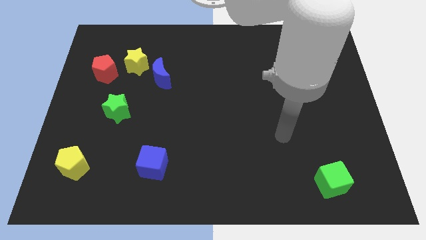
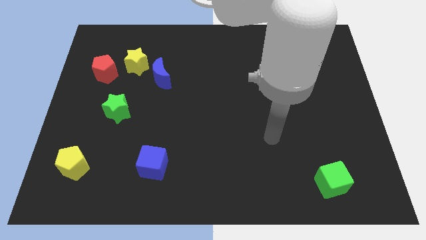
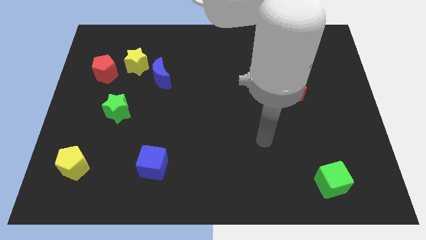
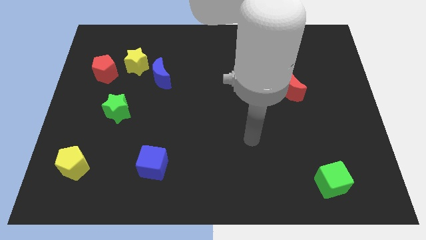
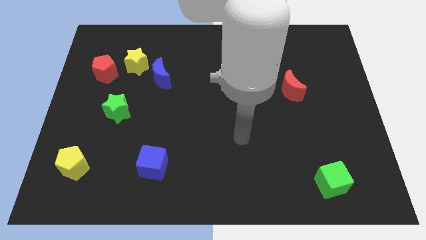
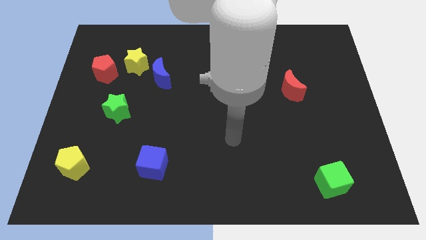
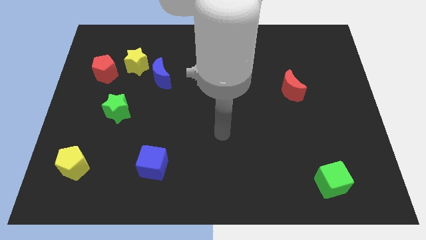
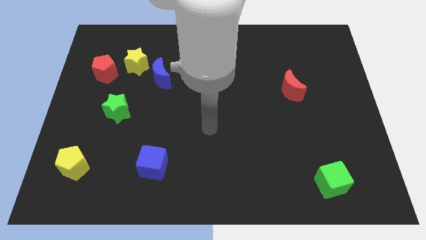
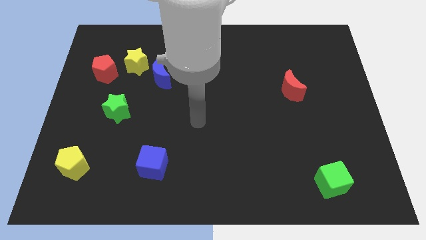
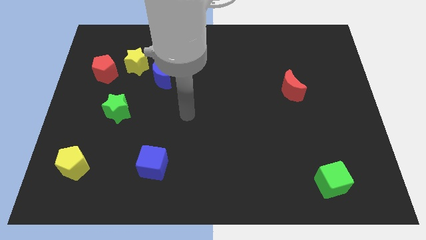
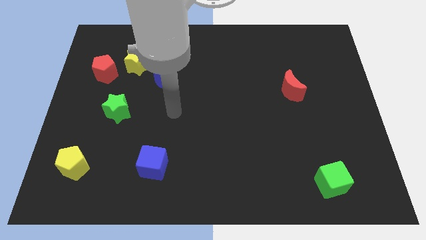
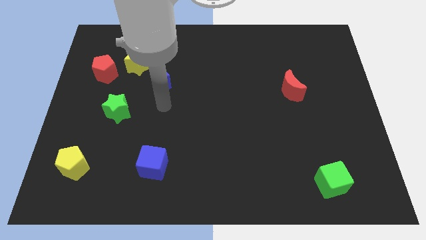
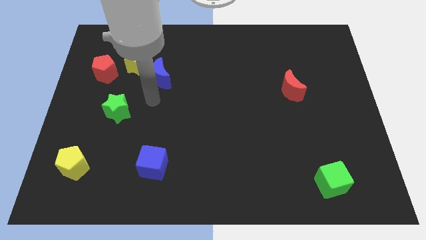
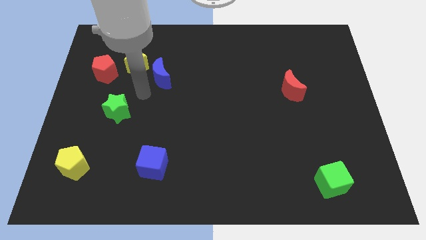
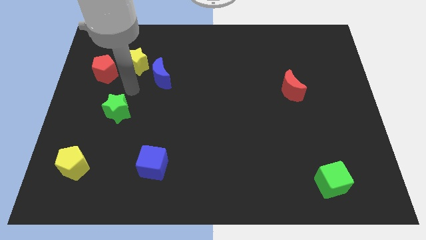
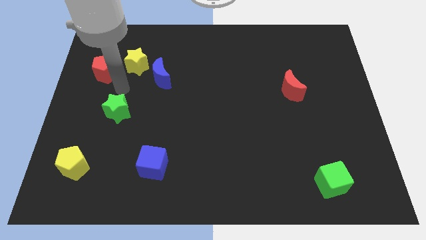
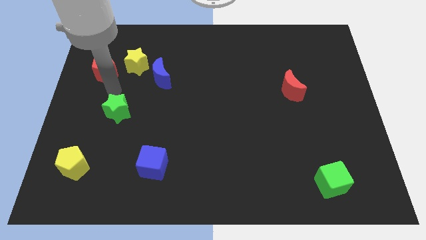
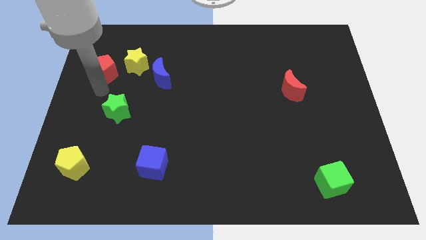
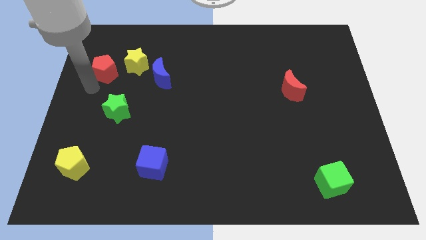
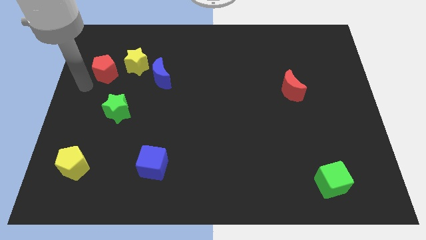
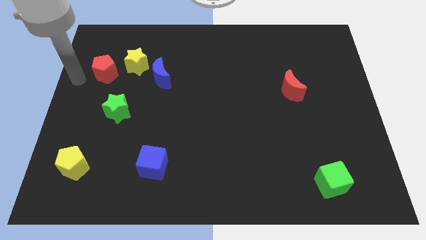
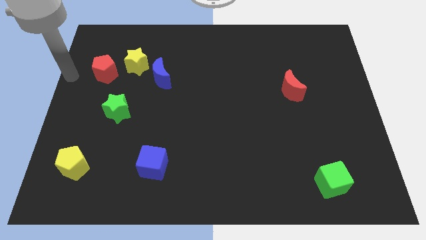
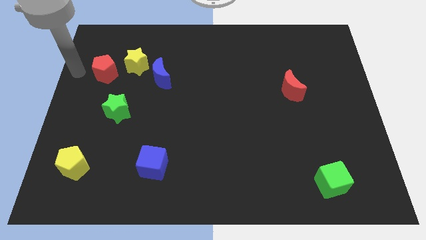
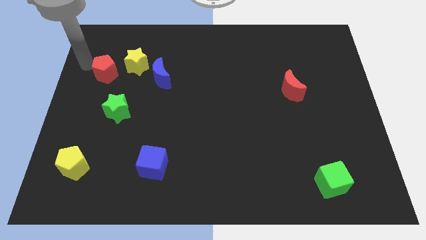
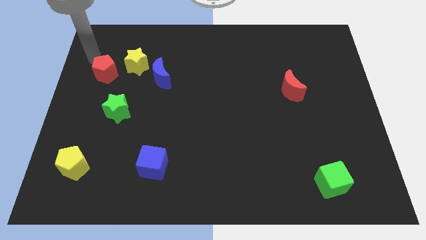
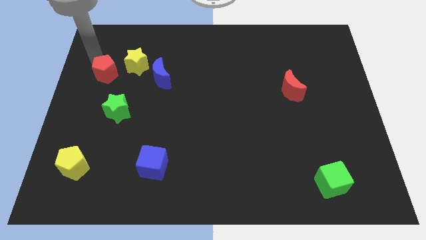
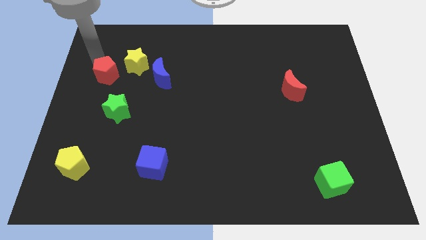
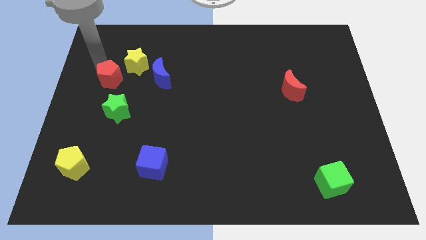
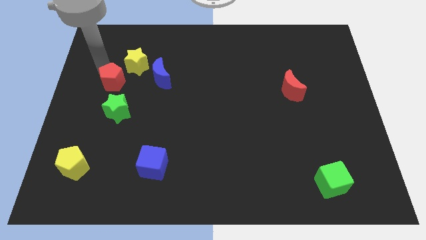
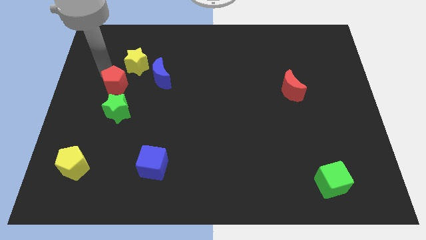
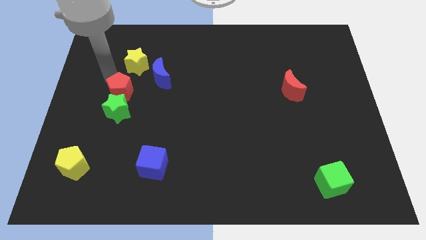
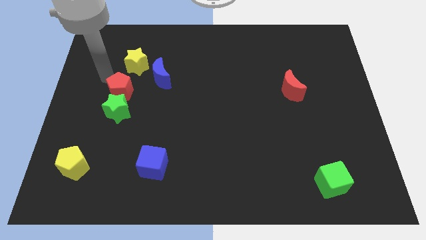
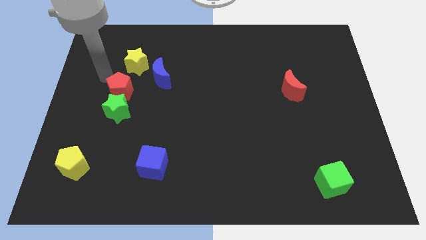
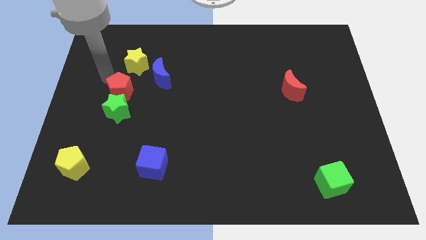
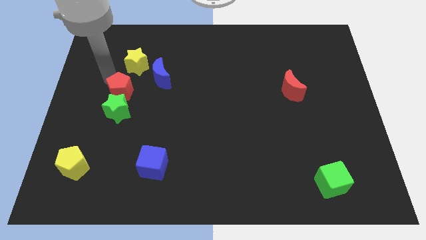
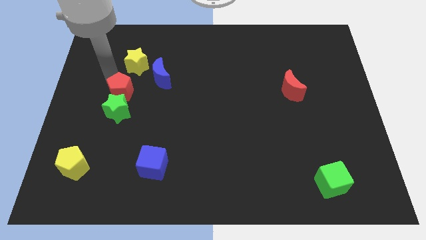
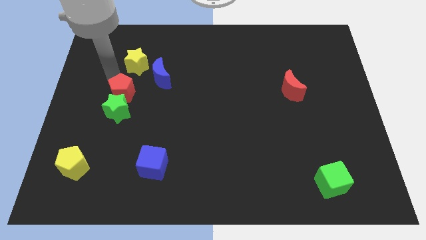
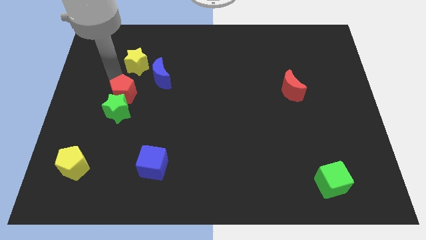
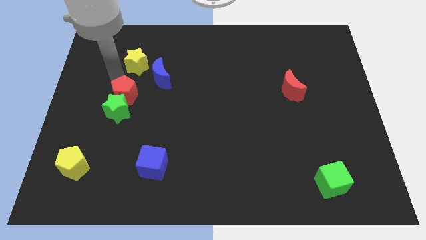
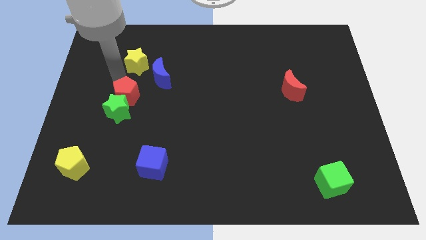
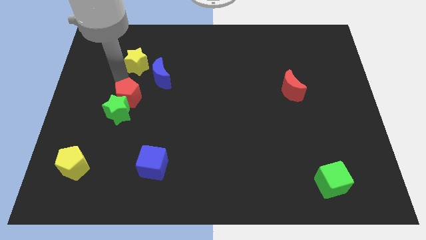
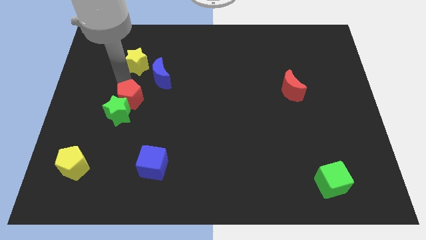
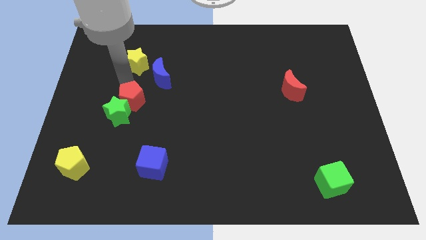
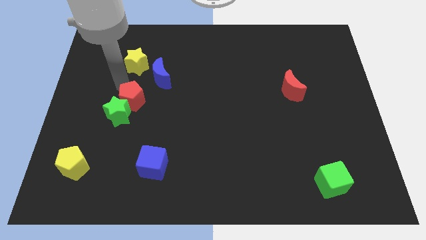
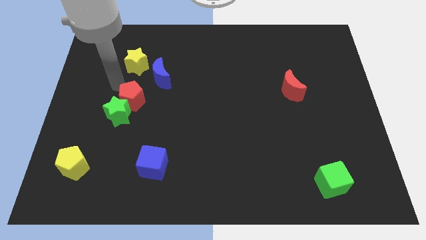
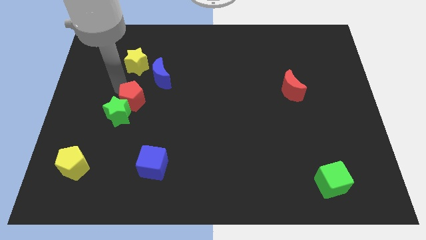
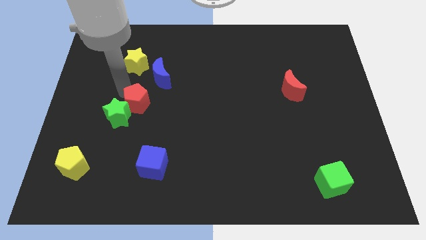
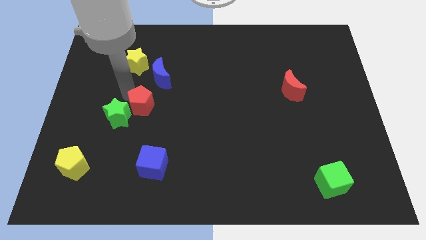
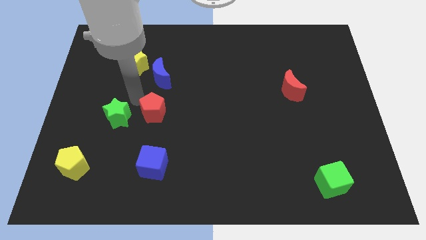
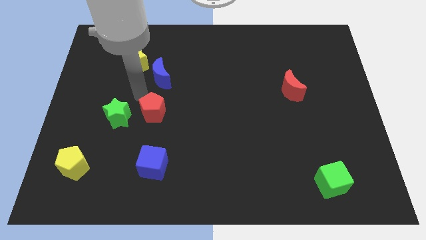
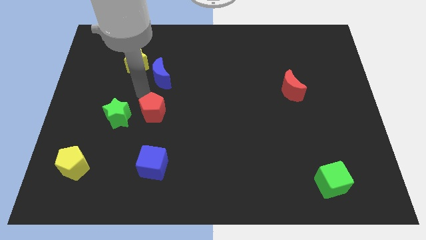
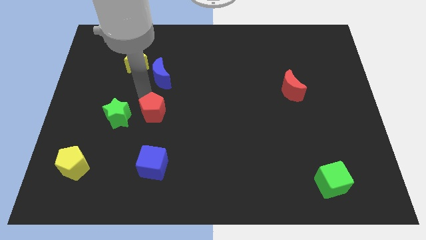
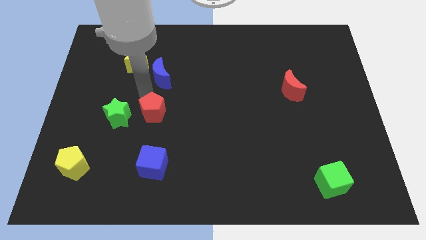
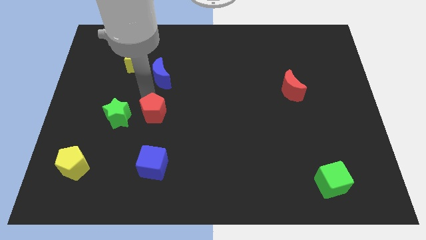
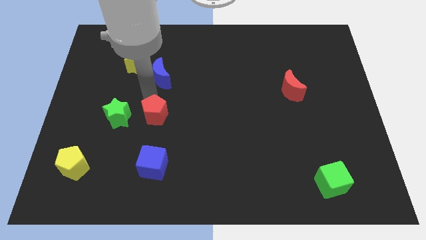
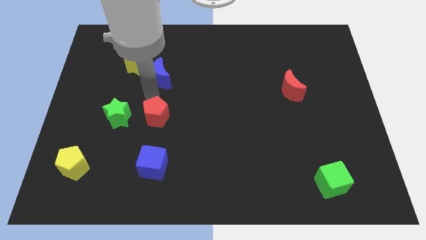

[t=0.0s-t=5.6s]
slide the red pentagon downwards and right diagonally

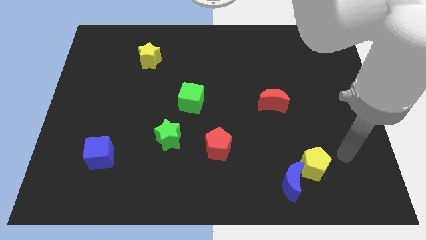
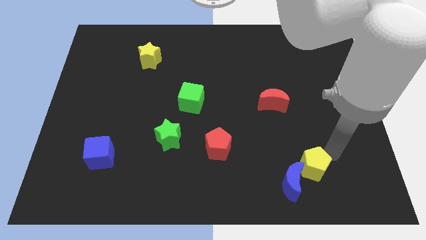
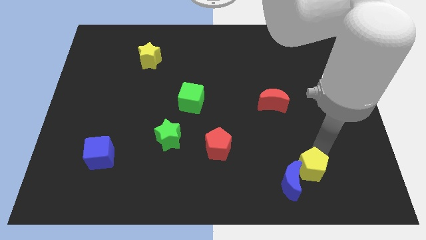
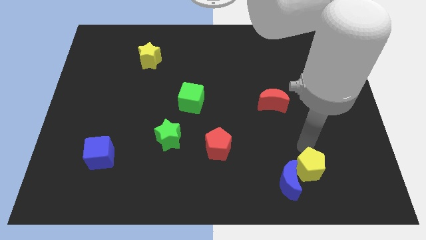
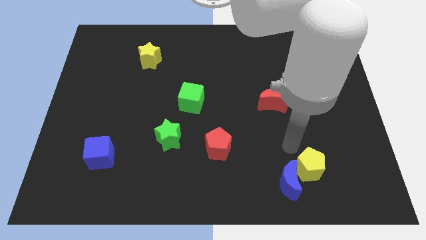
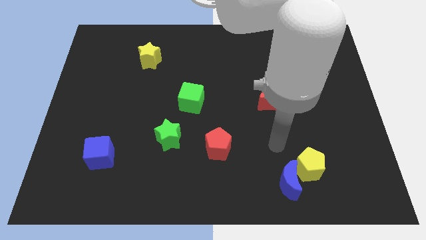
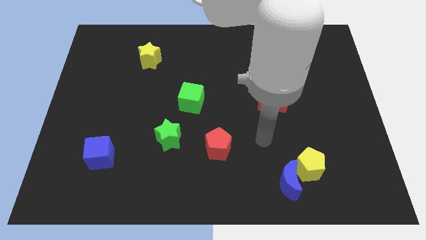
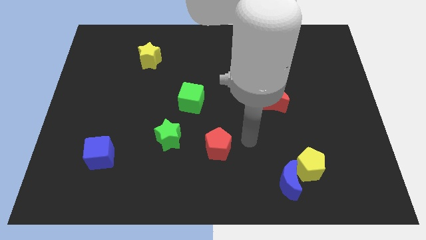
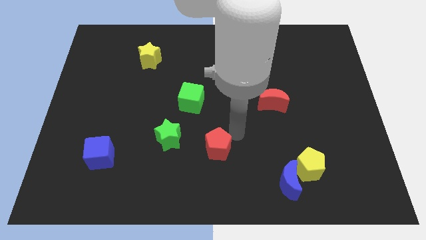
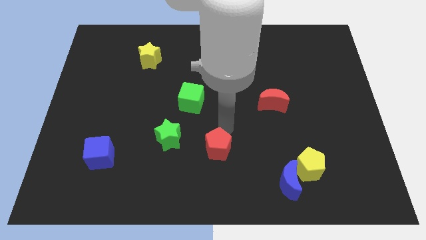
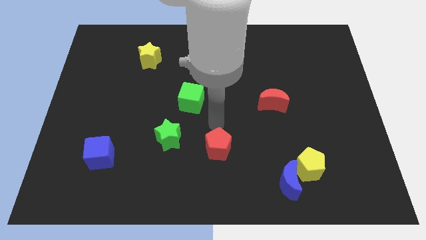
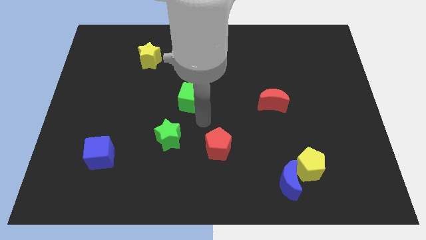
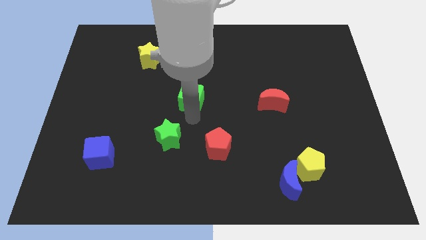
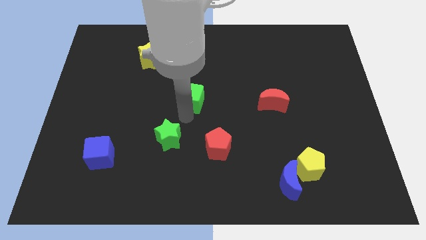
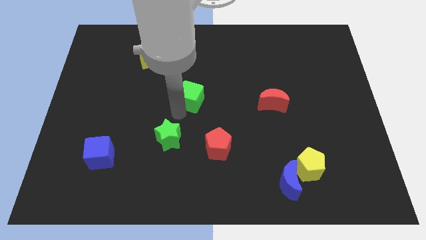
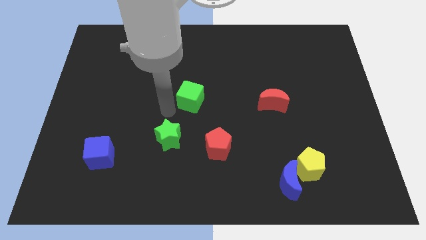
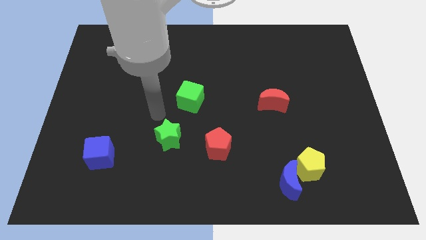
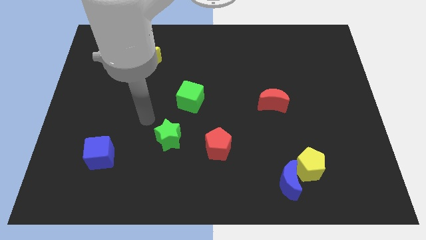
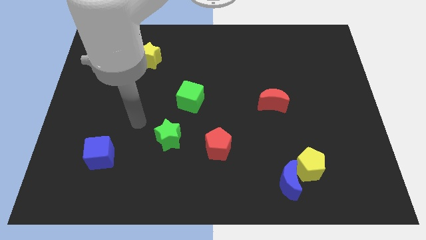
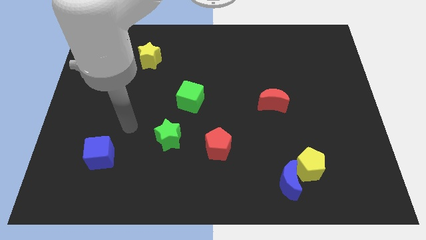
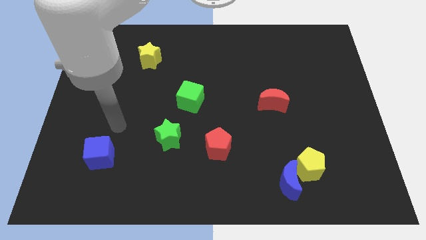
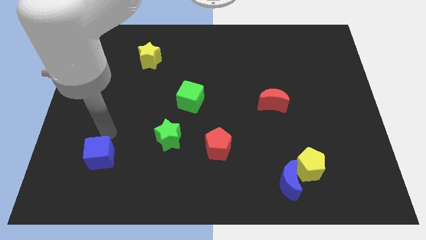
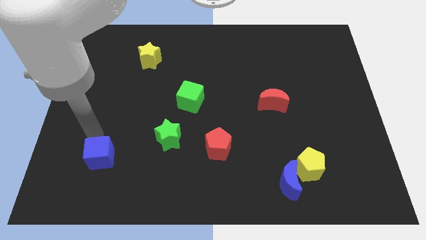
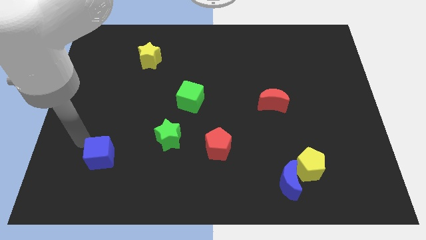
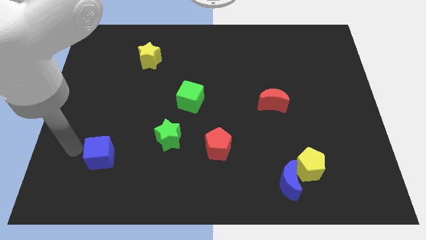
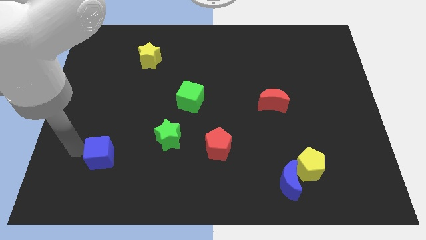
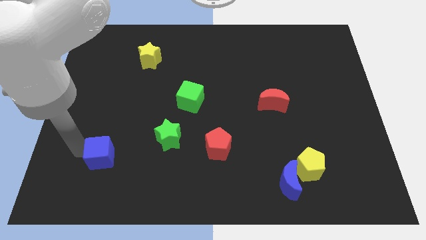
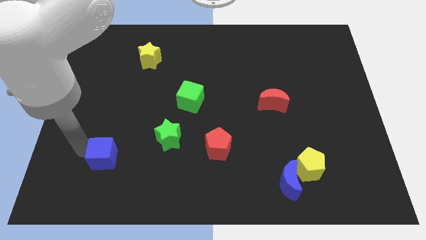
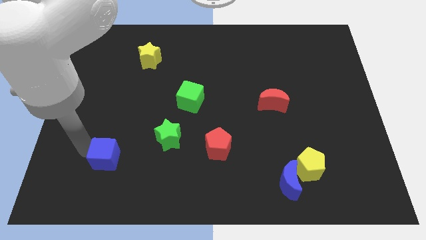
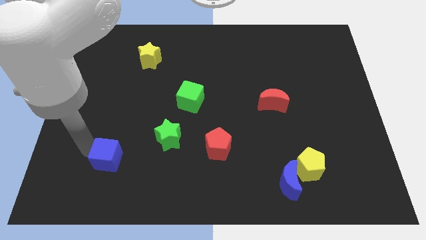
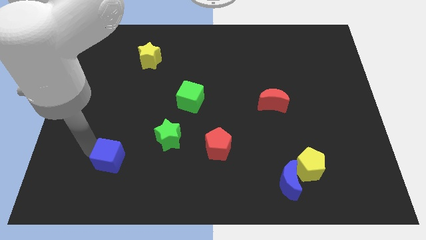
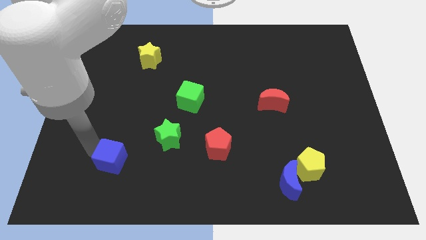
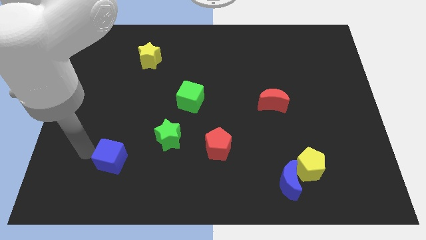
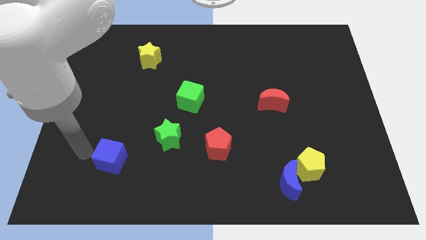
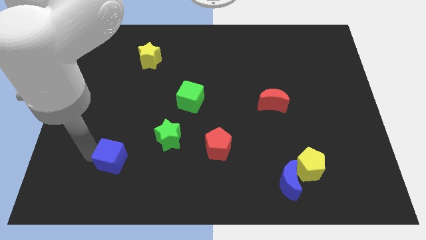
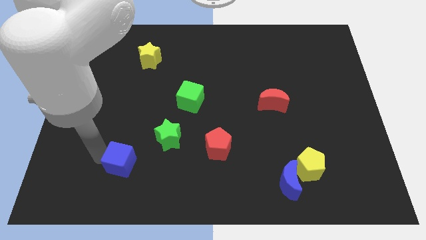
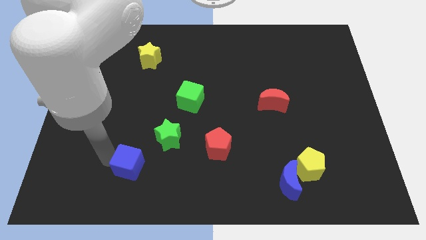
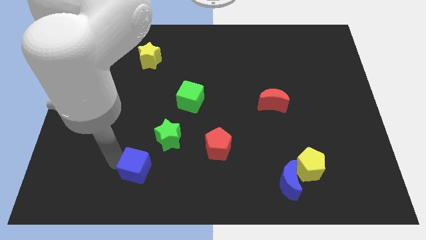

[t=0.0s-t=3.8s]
move the blue cube a little bit right
